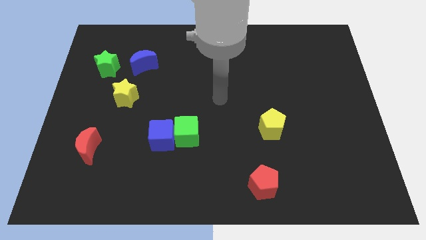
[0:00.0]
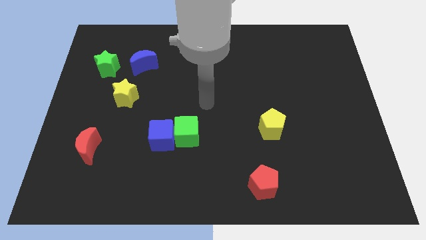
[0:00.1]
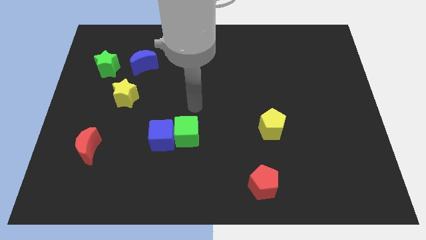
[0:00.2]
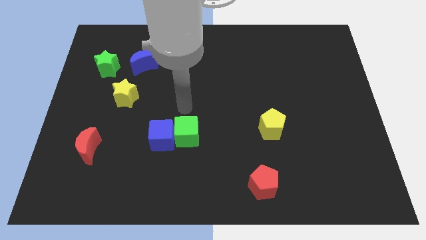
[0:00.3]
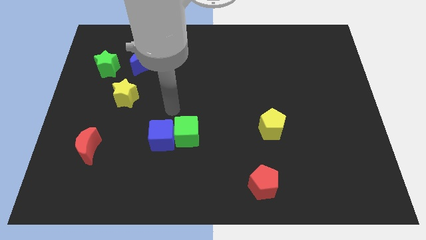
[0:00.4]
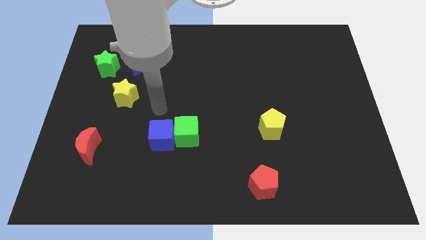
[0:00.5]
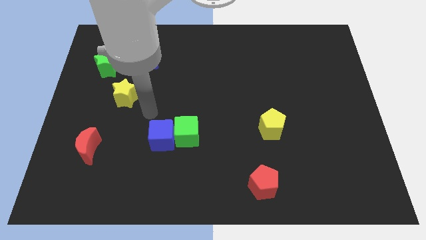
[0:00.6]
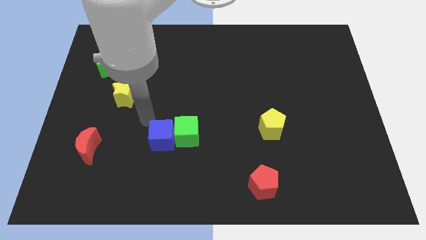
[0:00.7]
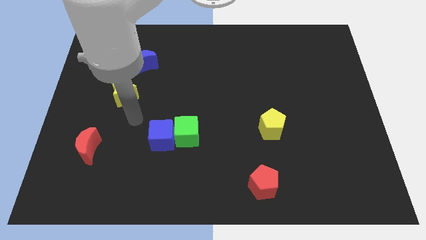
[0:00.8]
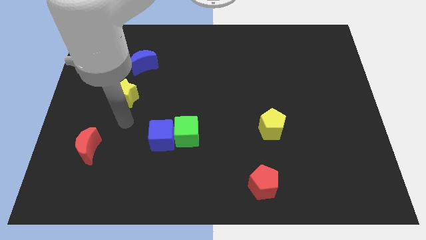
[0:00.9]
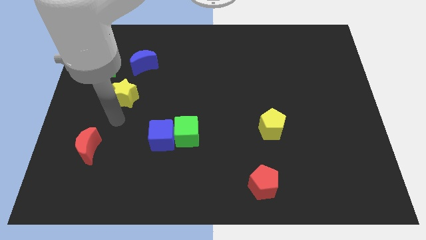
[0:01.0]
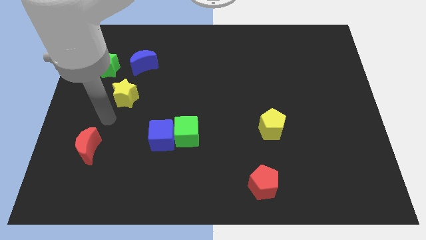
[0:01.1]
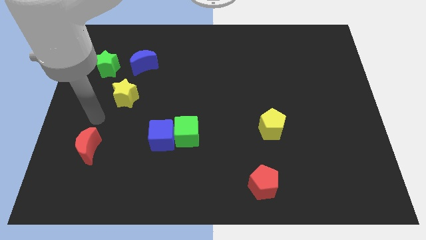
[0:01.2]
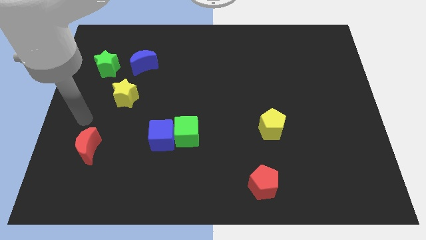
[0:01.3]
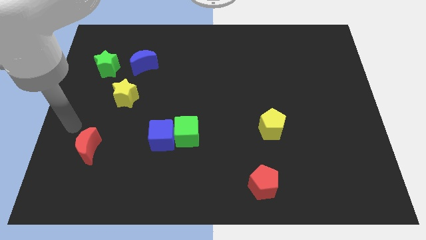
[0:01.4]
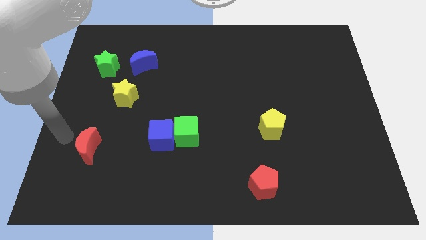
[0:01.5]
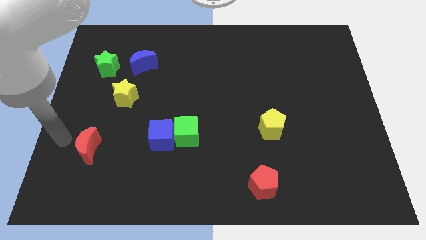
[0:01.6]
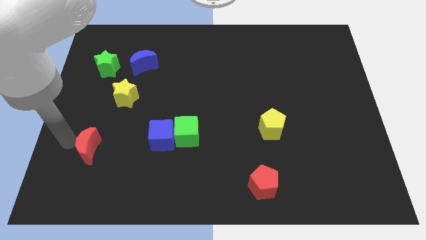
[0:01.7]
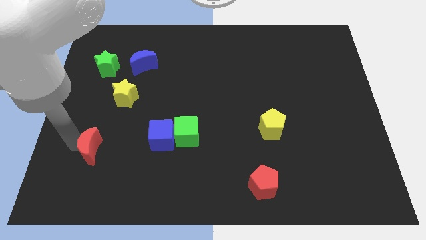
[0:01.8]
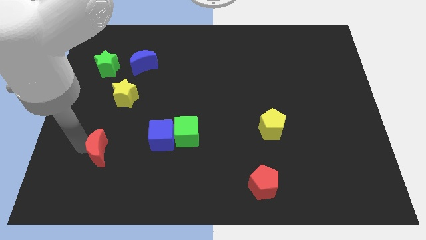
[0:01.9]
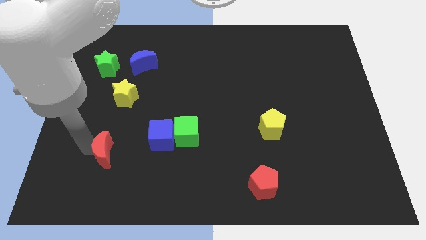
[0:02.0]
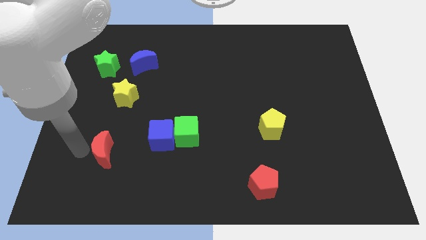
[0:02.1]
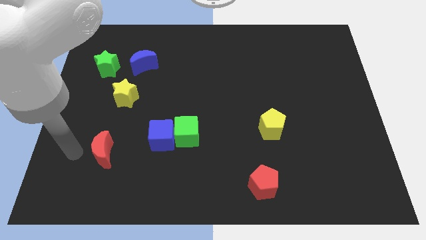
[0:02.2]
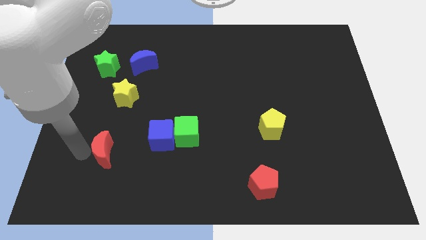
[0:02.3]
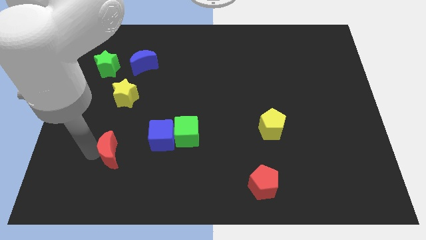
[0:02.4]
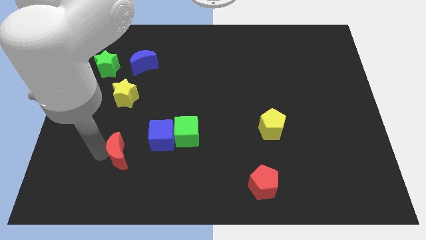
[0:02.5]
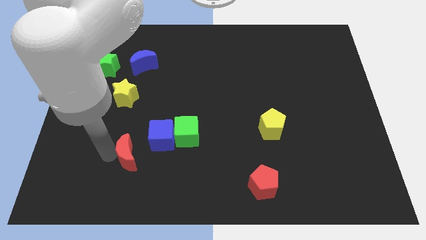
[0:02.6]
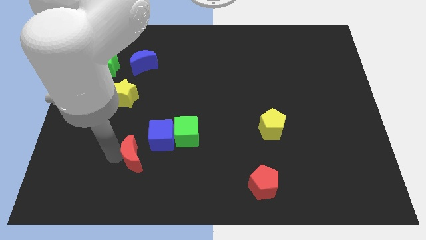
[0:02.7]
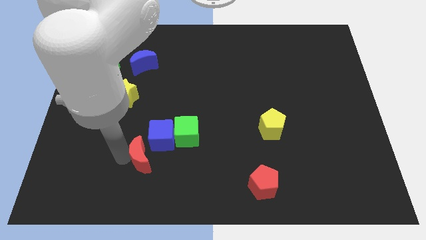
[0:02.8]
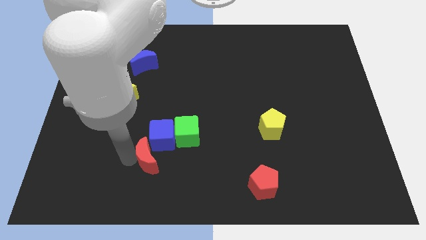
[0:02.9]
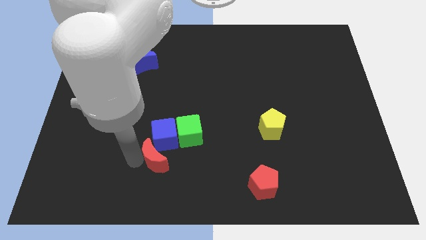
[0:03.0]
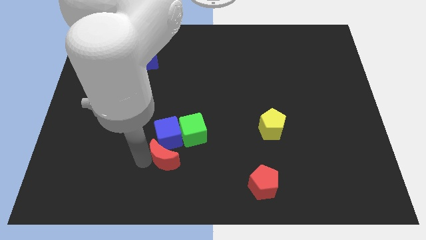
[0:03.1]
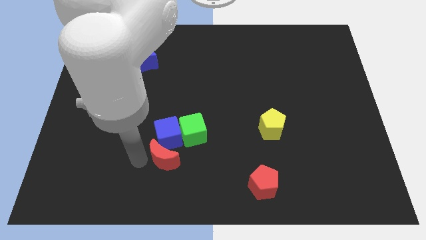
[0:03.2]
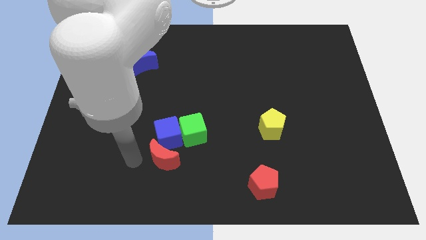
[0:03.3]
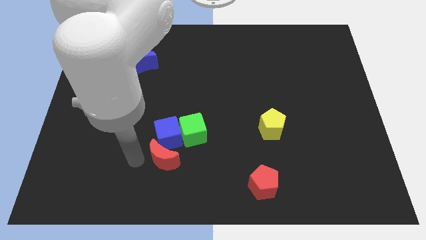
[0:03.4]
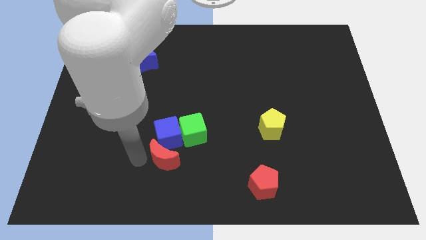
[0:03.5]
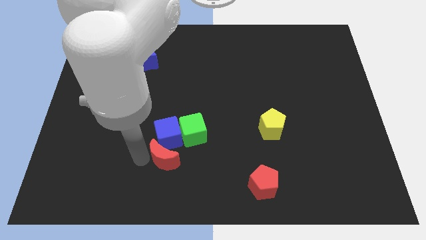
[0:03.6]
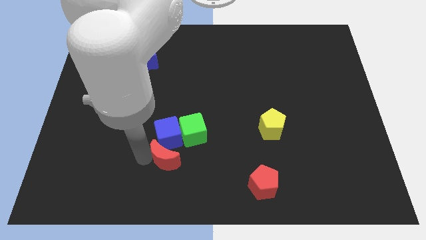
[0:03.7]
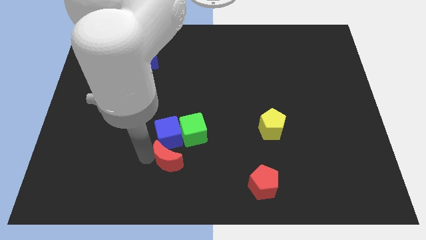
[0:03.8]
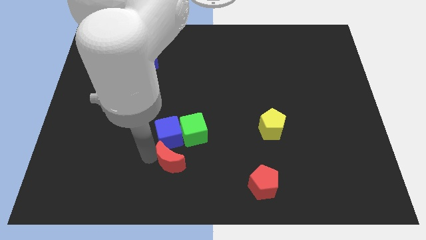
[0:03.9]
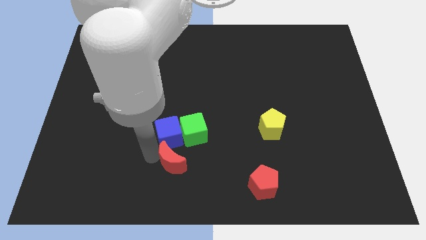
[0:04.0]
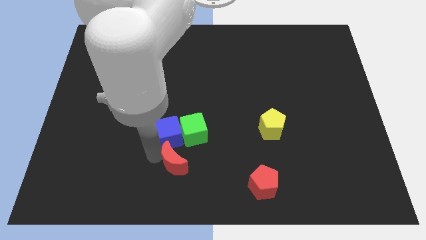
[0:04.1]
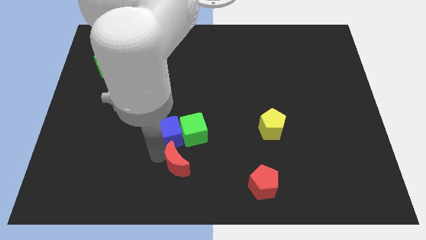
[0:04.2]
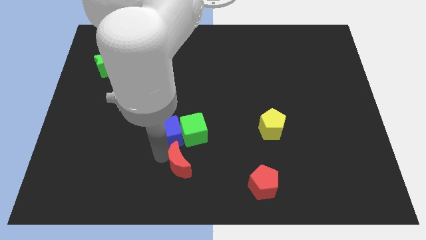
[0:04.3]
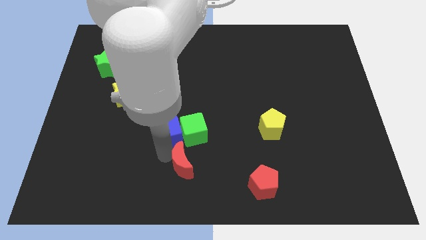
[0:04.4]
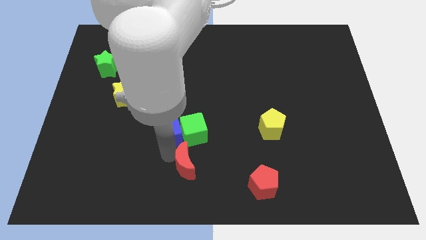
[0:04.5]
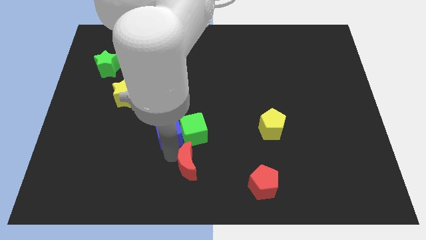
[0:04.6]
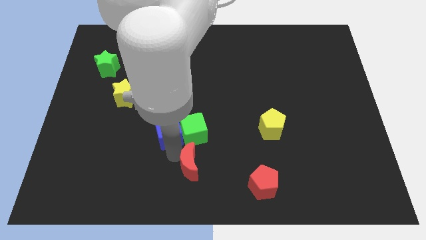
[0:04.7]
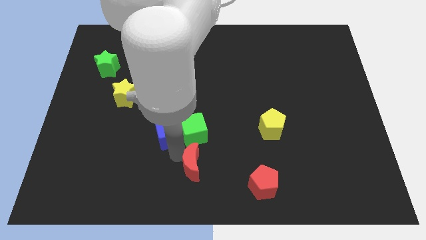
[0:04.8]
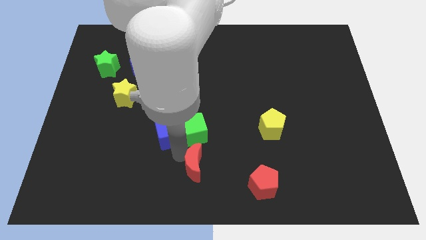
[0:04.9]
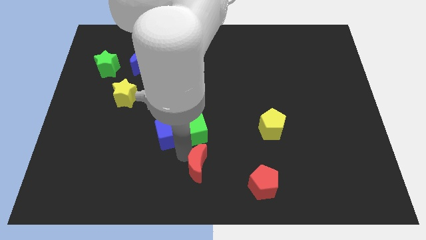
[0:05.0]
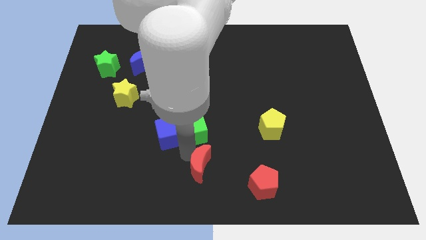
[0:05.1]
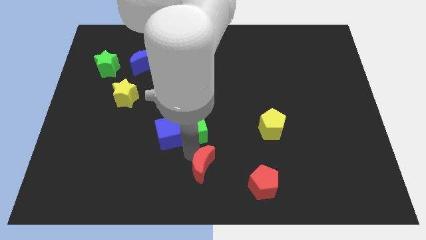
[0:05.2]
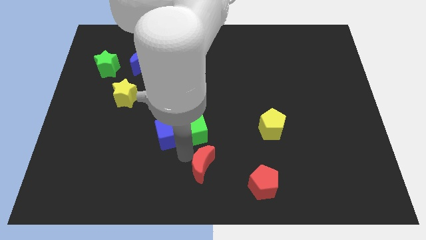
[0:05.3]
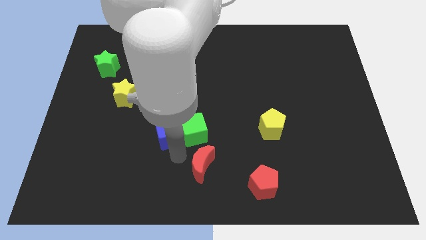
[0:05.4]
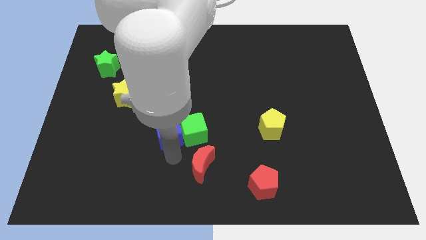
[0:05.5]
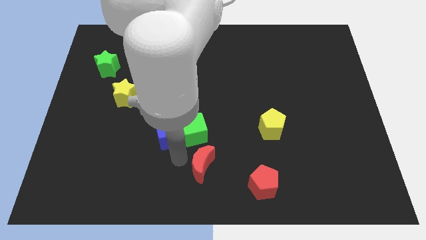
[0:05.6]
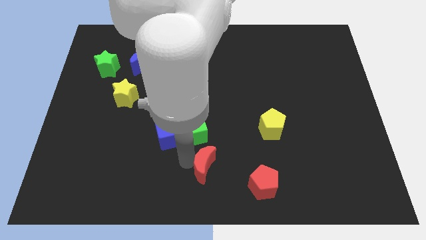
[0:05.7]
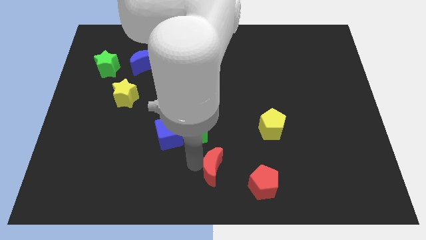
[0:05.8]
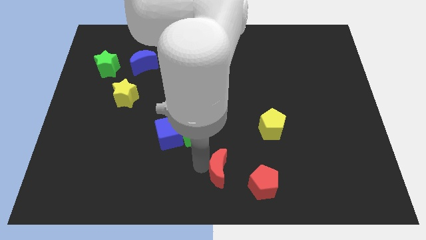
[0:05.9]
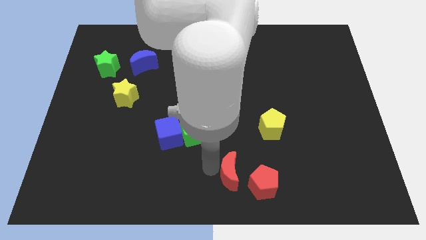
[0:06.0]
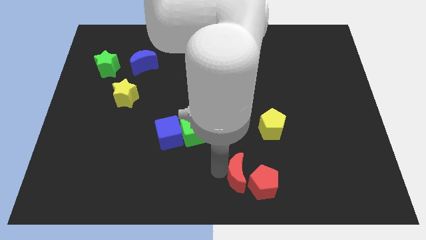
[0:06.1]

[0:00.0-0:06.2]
push the red moon to the red pentagon

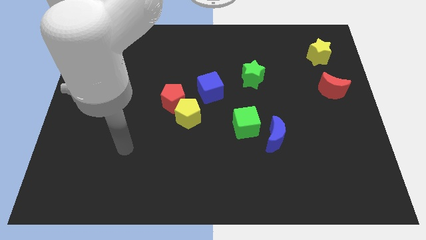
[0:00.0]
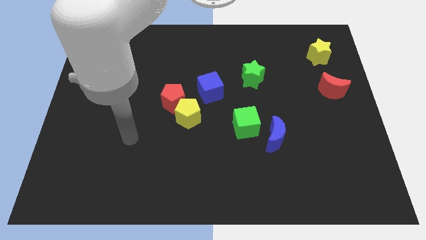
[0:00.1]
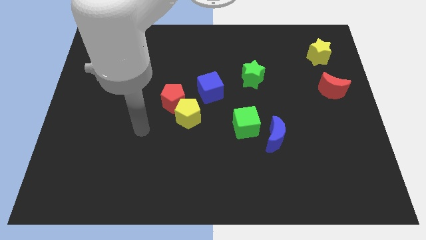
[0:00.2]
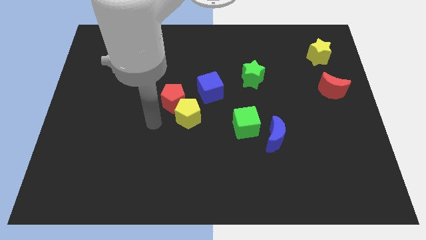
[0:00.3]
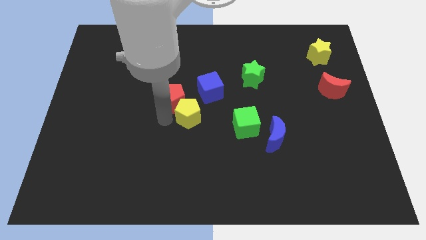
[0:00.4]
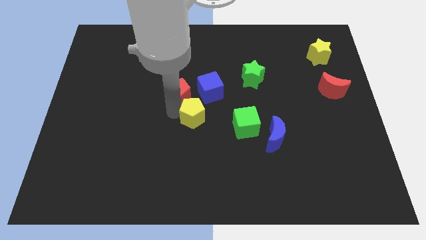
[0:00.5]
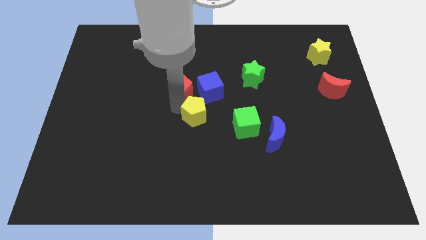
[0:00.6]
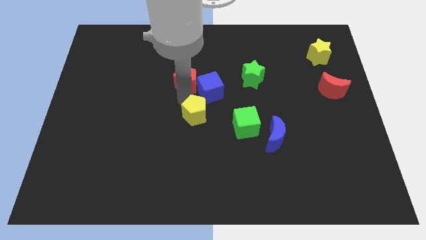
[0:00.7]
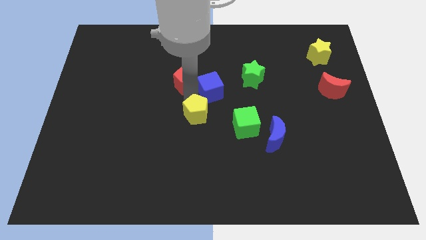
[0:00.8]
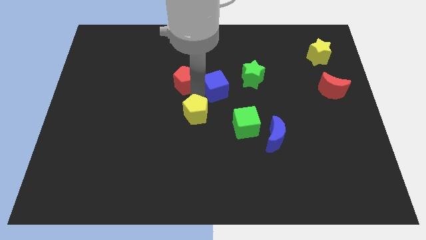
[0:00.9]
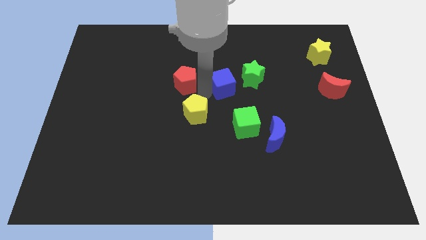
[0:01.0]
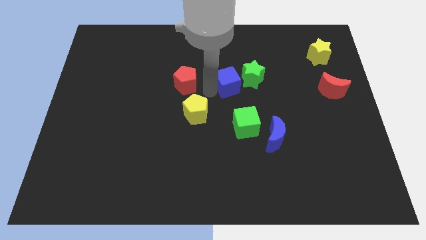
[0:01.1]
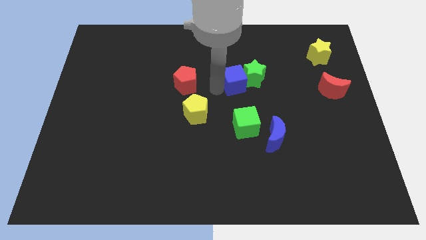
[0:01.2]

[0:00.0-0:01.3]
put the blue cube towards the green star

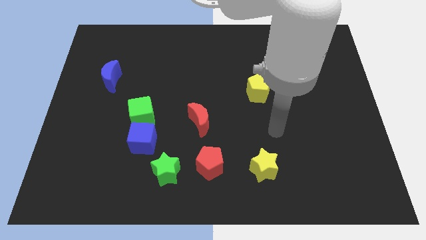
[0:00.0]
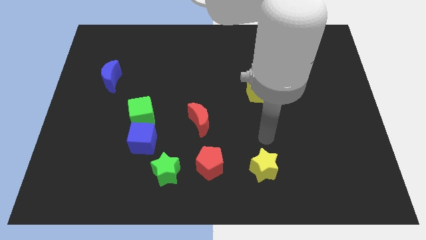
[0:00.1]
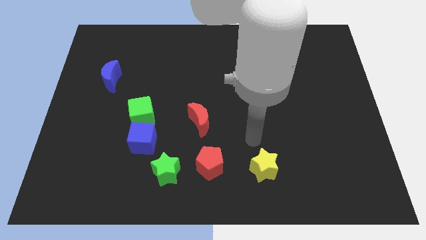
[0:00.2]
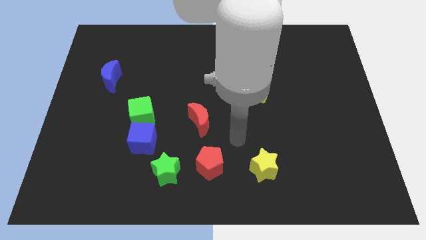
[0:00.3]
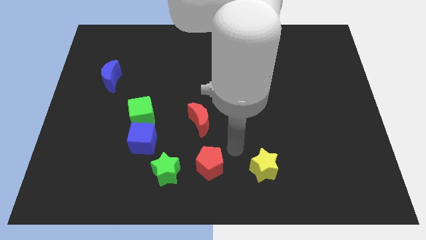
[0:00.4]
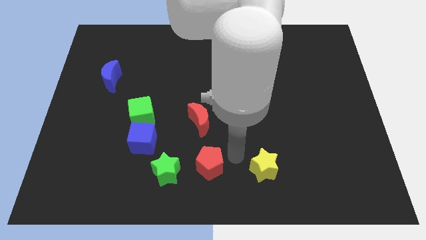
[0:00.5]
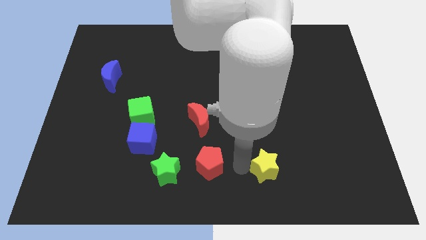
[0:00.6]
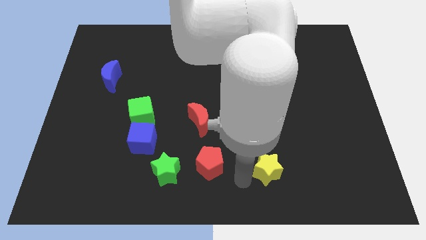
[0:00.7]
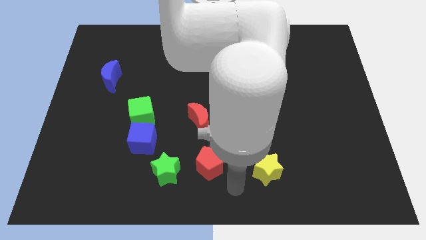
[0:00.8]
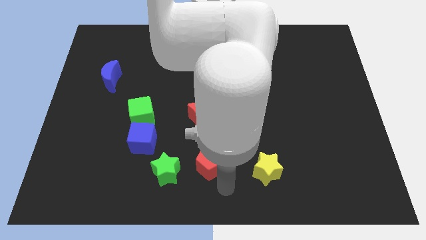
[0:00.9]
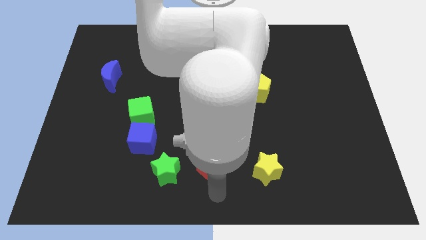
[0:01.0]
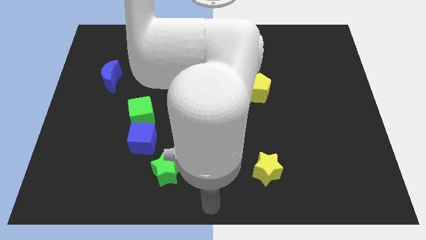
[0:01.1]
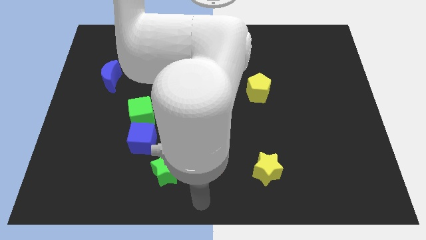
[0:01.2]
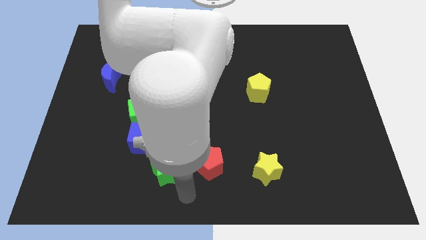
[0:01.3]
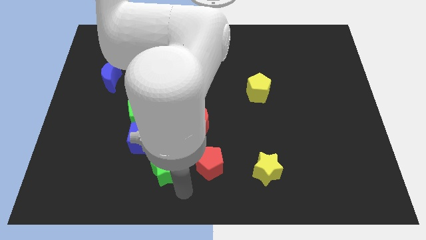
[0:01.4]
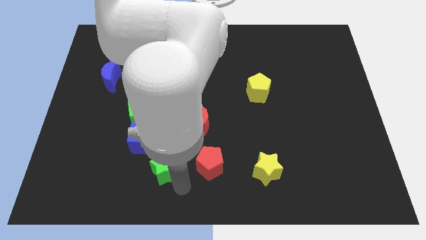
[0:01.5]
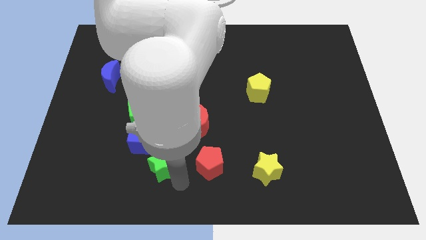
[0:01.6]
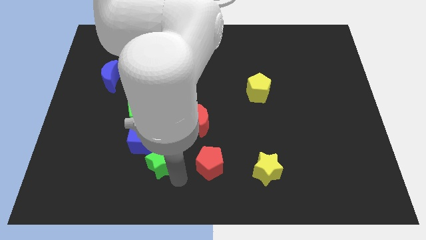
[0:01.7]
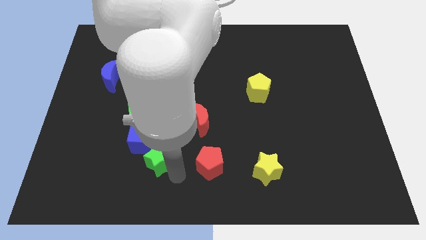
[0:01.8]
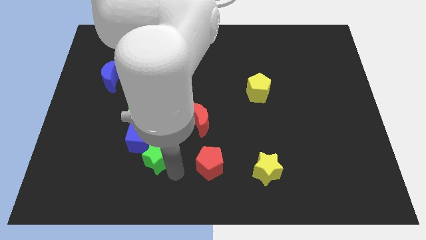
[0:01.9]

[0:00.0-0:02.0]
slide the green star close to the blue cube
